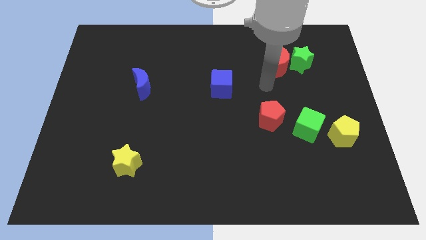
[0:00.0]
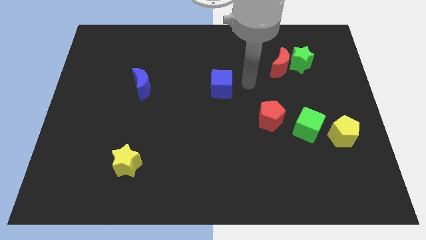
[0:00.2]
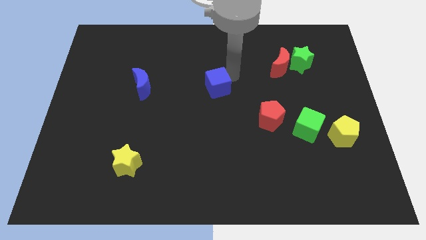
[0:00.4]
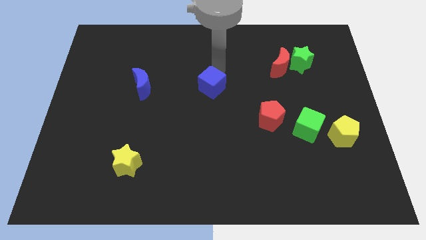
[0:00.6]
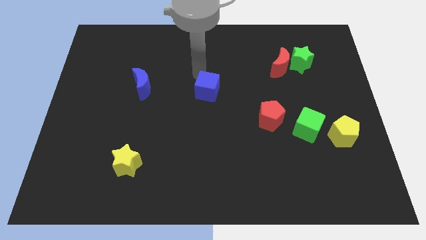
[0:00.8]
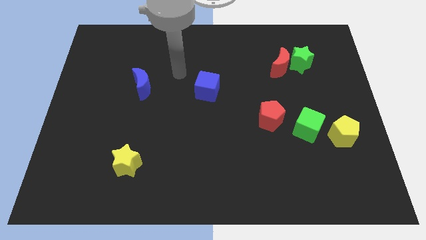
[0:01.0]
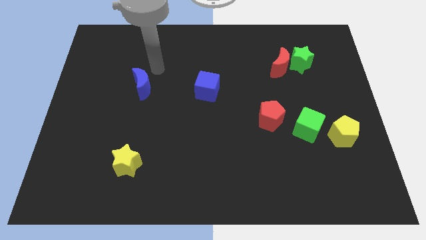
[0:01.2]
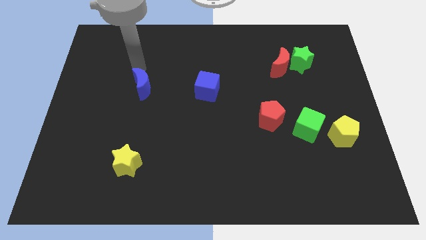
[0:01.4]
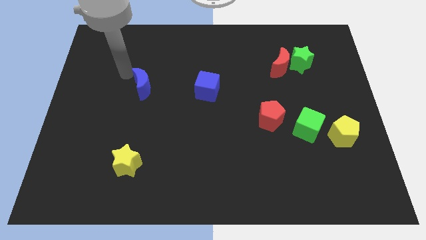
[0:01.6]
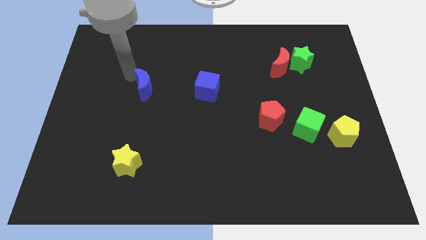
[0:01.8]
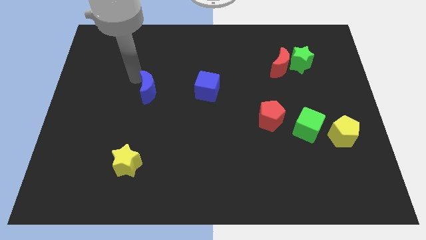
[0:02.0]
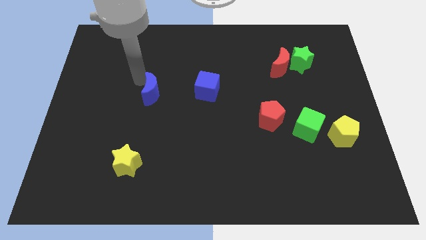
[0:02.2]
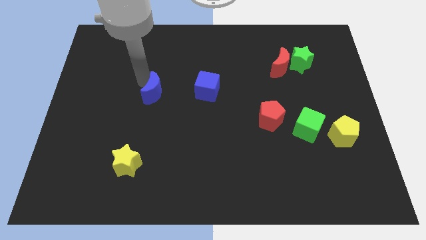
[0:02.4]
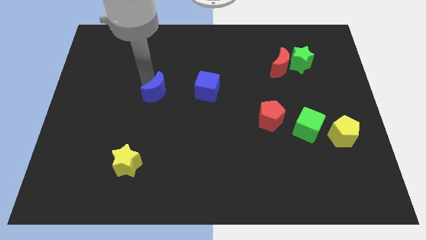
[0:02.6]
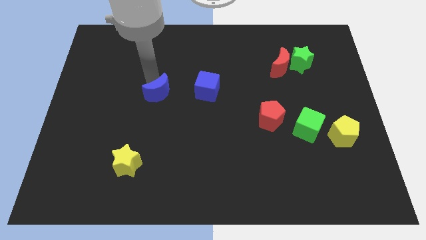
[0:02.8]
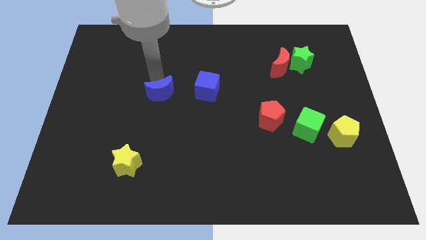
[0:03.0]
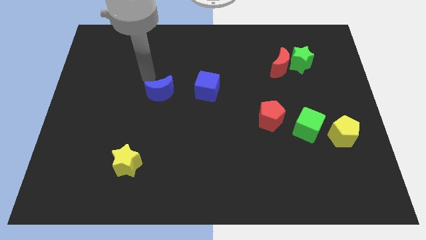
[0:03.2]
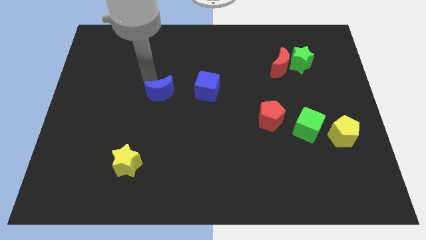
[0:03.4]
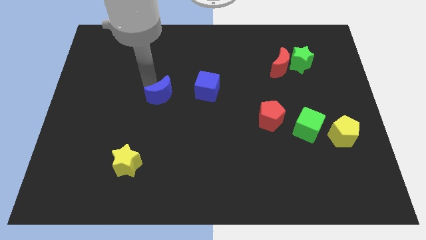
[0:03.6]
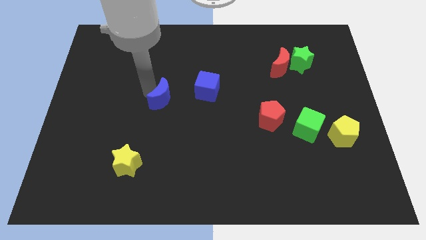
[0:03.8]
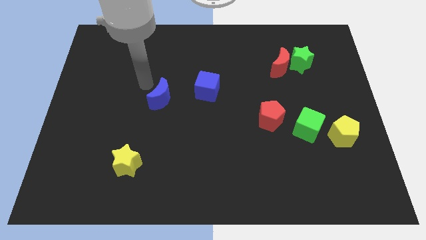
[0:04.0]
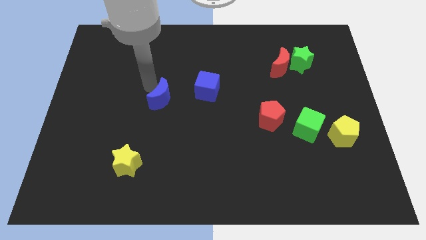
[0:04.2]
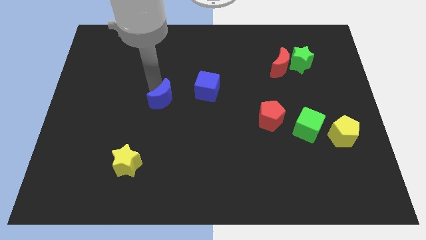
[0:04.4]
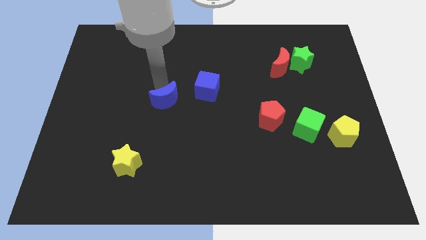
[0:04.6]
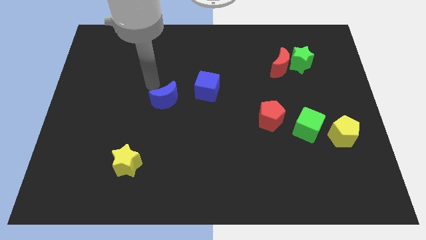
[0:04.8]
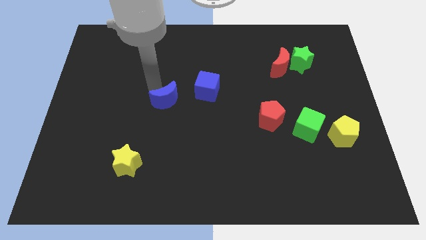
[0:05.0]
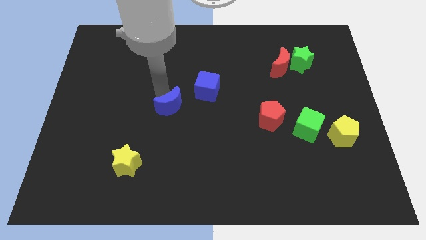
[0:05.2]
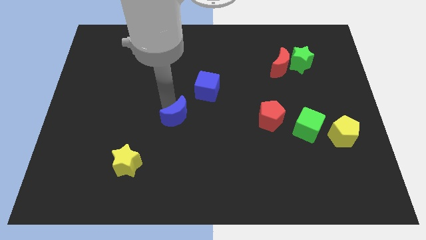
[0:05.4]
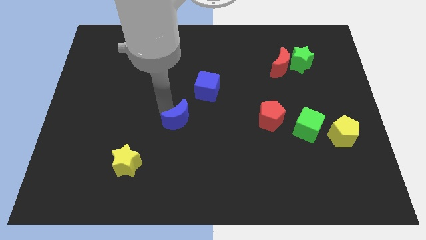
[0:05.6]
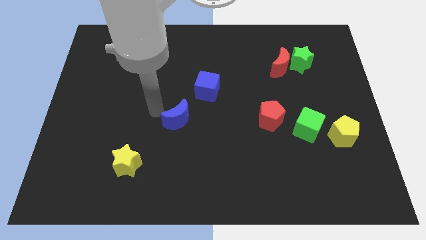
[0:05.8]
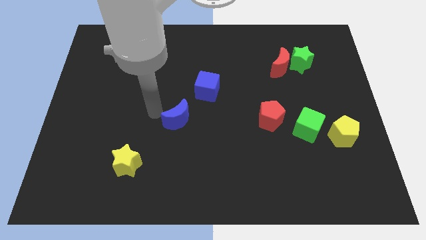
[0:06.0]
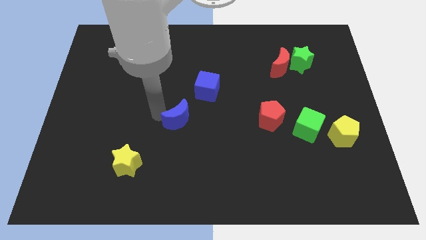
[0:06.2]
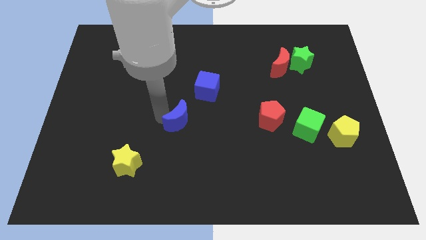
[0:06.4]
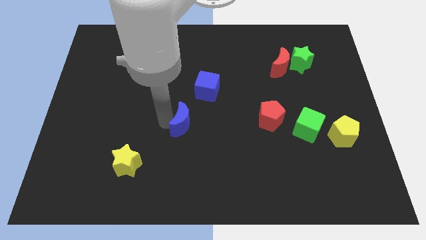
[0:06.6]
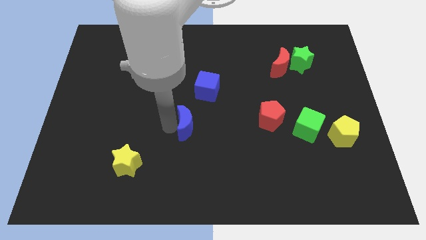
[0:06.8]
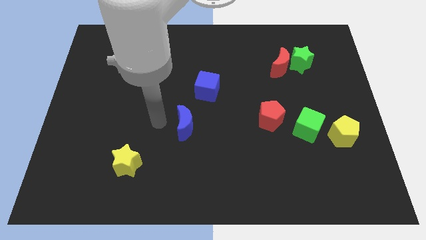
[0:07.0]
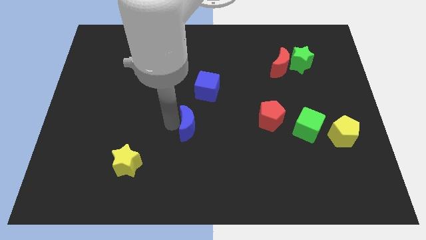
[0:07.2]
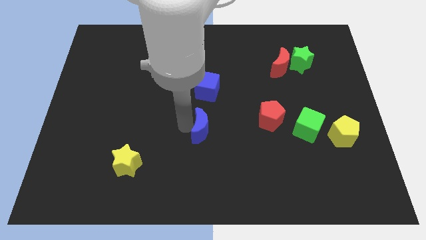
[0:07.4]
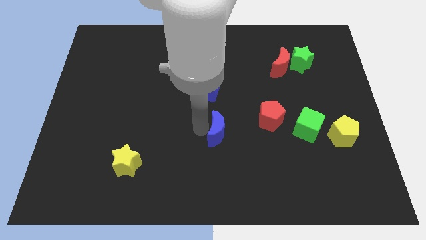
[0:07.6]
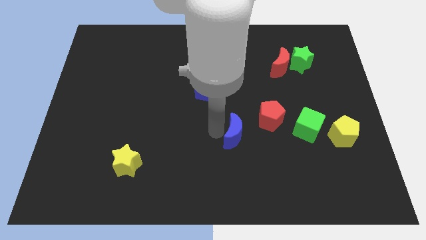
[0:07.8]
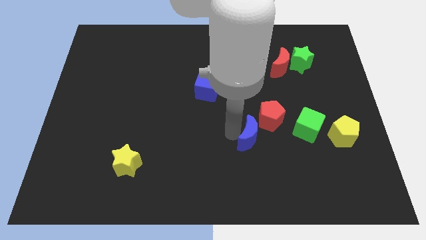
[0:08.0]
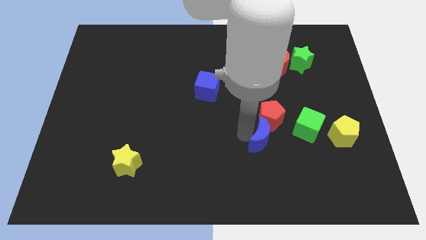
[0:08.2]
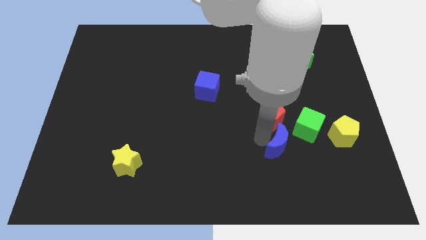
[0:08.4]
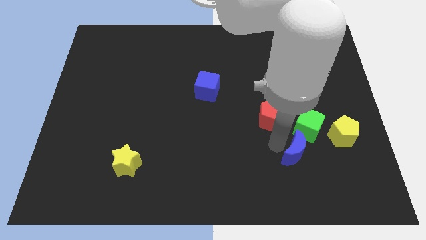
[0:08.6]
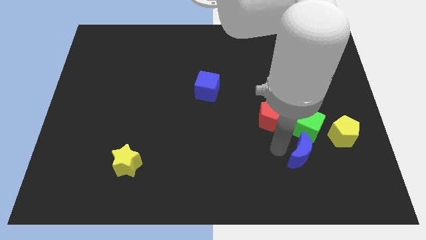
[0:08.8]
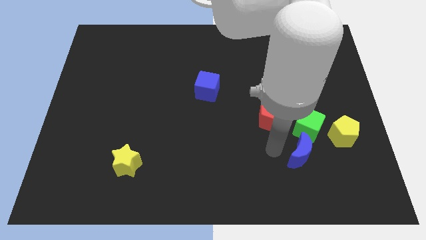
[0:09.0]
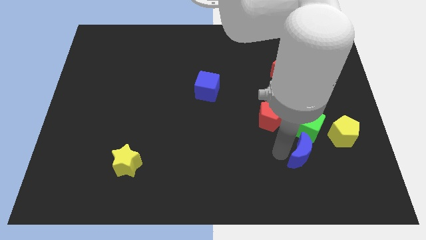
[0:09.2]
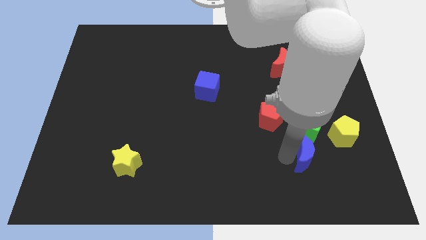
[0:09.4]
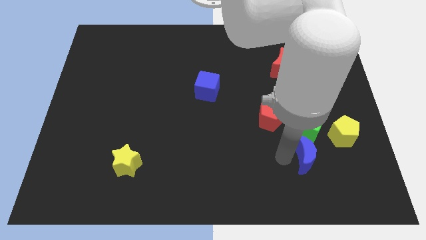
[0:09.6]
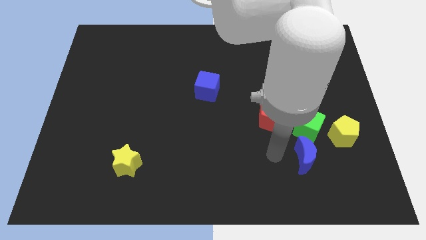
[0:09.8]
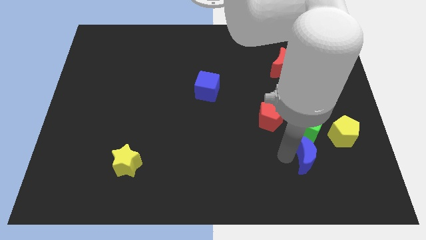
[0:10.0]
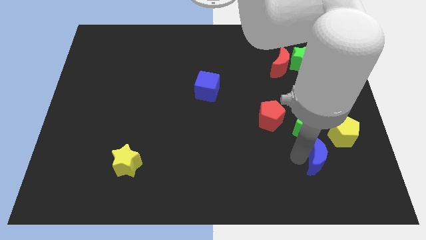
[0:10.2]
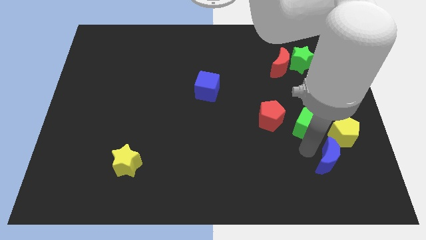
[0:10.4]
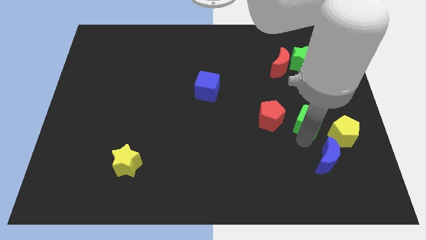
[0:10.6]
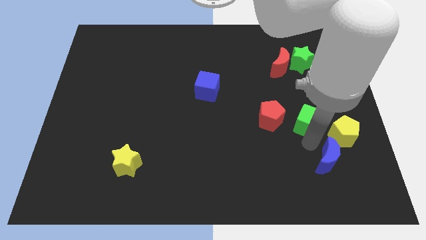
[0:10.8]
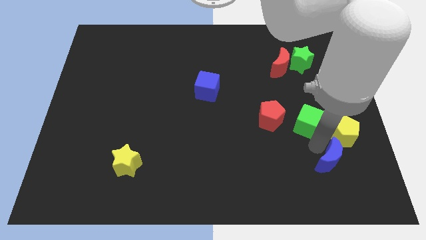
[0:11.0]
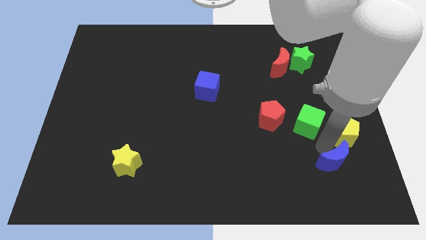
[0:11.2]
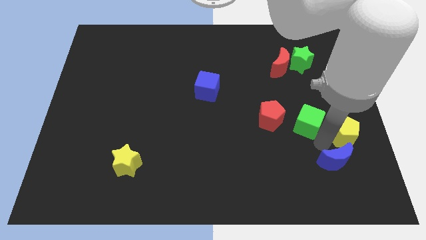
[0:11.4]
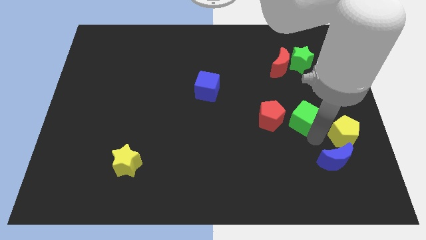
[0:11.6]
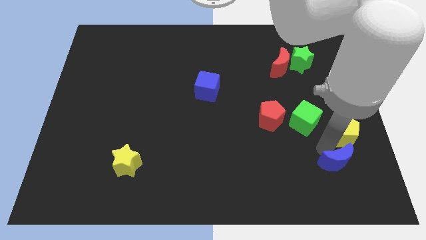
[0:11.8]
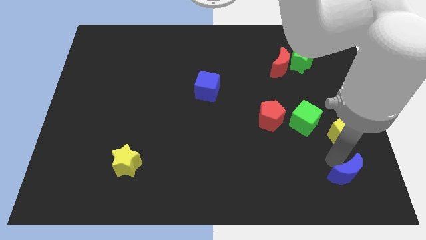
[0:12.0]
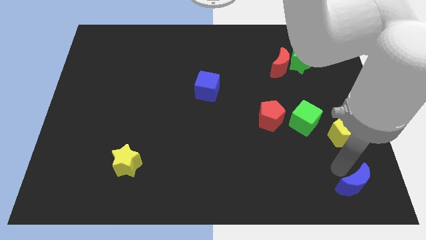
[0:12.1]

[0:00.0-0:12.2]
put the blue moon to the bottom right corner

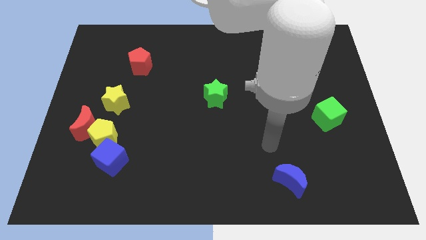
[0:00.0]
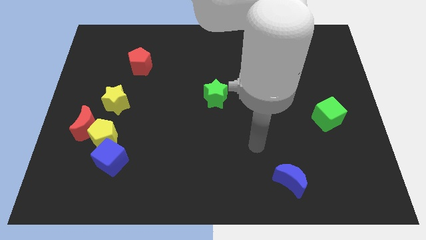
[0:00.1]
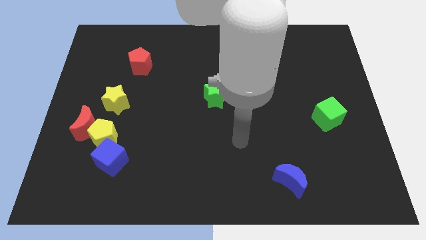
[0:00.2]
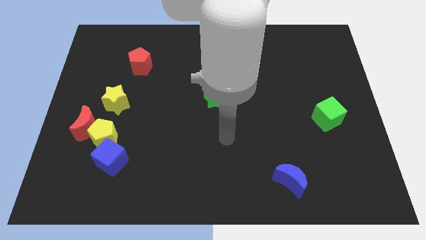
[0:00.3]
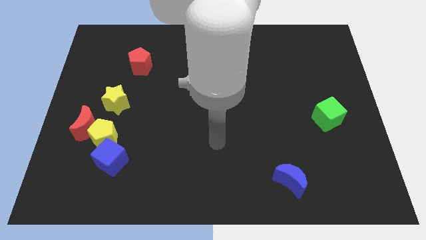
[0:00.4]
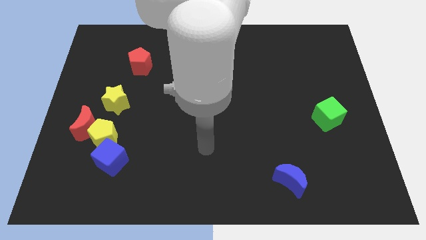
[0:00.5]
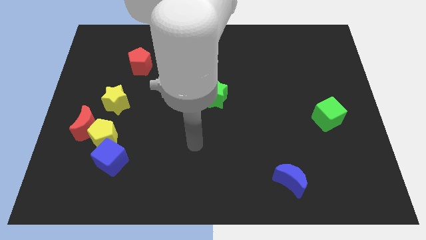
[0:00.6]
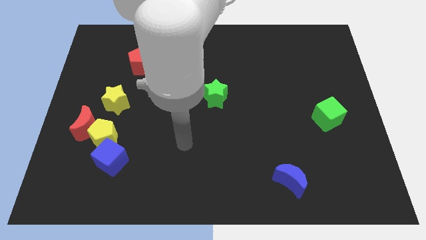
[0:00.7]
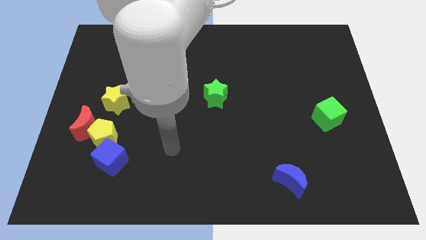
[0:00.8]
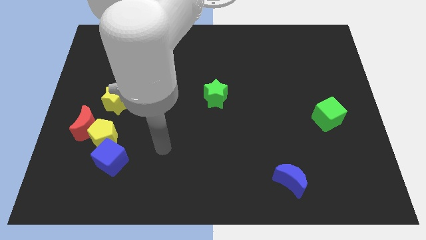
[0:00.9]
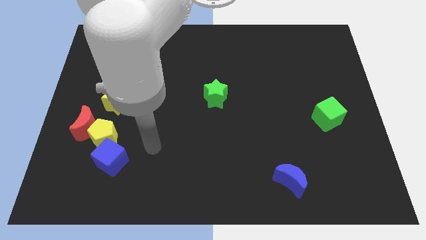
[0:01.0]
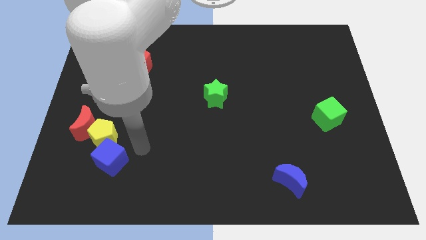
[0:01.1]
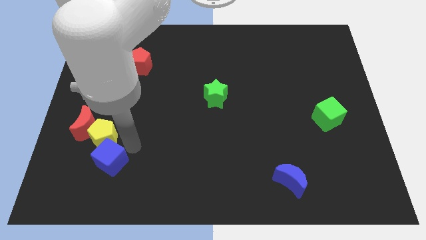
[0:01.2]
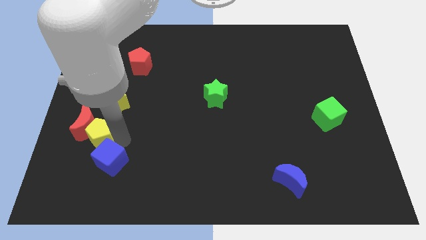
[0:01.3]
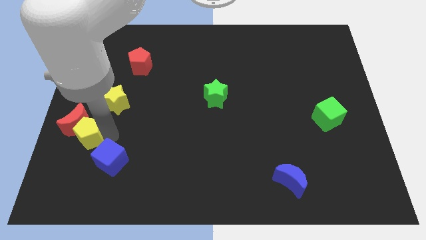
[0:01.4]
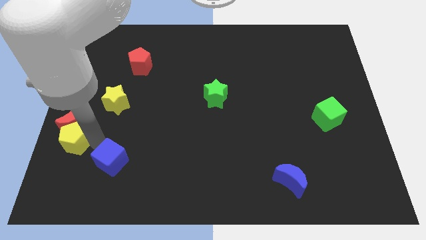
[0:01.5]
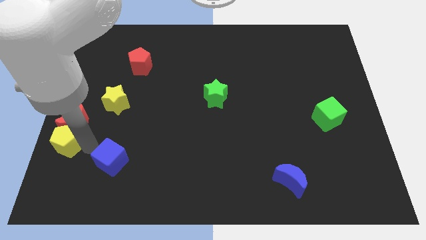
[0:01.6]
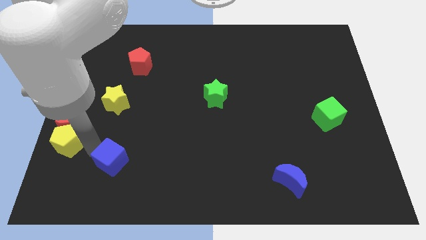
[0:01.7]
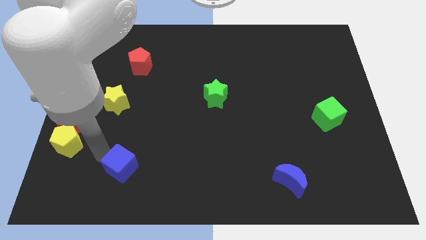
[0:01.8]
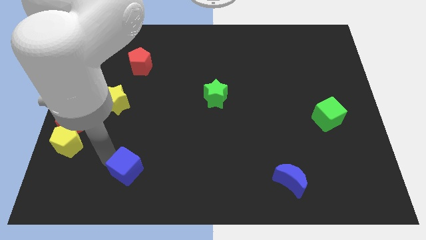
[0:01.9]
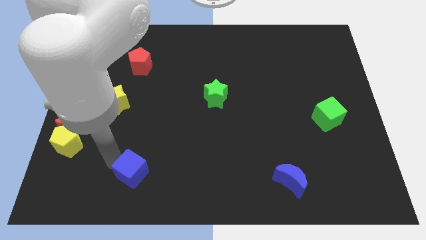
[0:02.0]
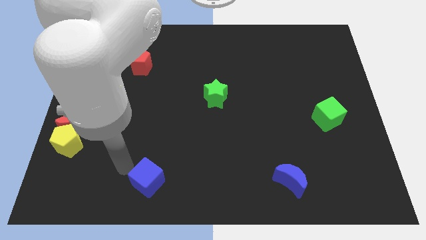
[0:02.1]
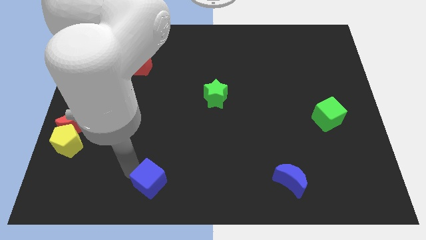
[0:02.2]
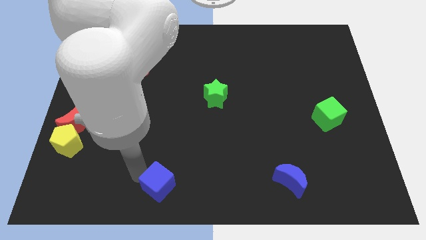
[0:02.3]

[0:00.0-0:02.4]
slide the blue cube to the bottom
